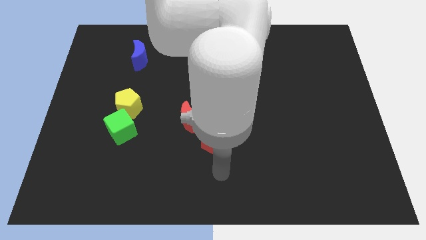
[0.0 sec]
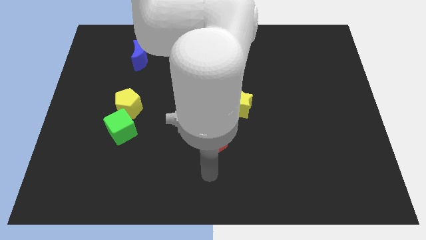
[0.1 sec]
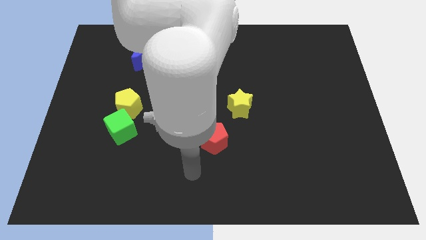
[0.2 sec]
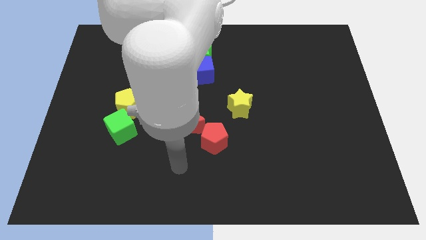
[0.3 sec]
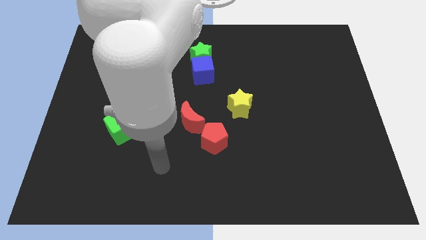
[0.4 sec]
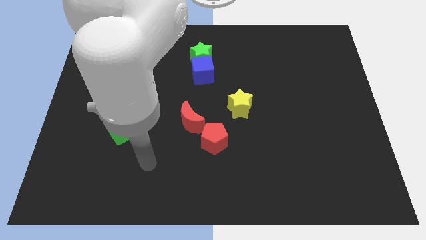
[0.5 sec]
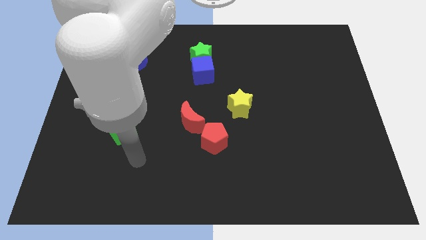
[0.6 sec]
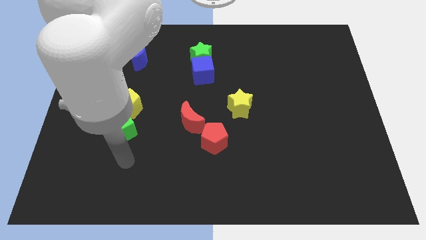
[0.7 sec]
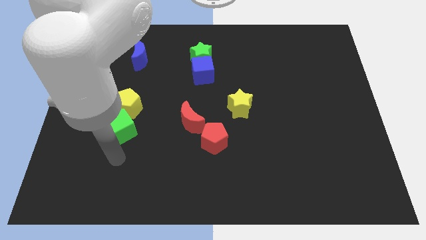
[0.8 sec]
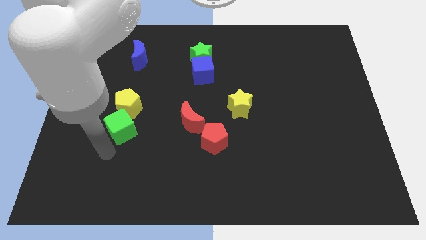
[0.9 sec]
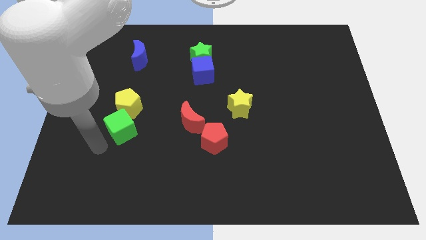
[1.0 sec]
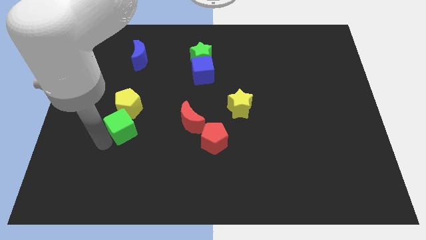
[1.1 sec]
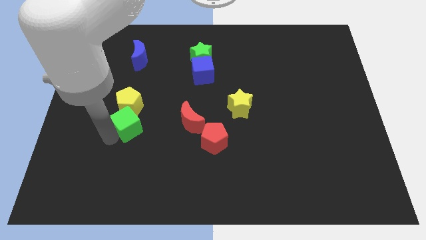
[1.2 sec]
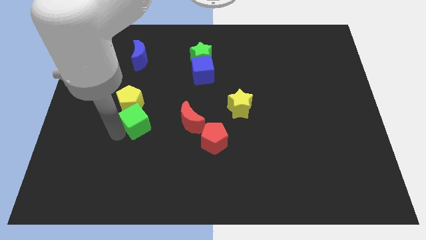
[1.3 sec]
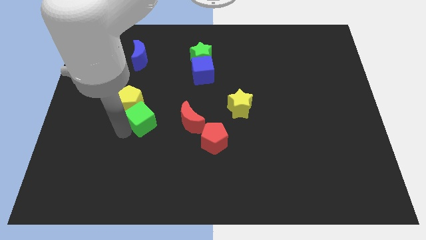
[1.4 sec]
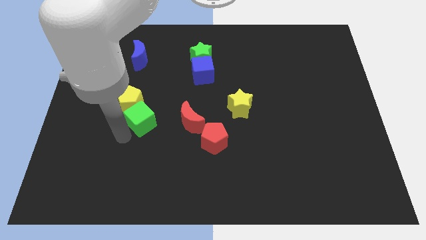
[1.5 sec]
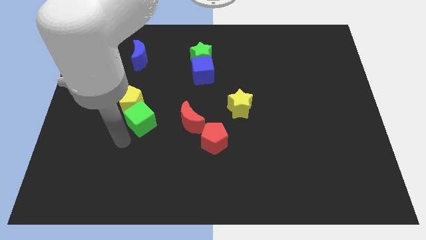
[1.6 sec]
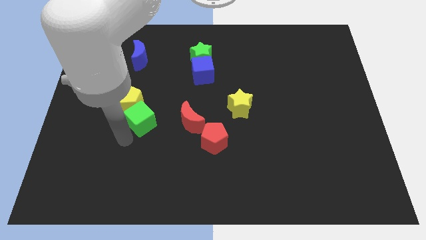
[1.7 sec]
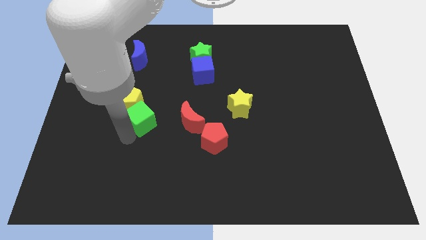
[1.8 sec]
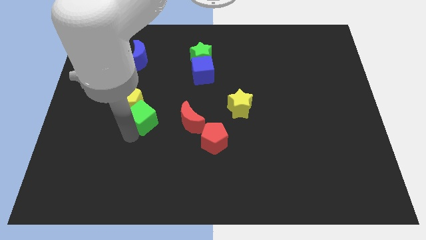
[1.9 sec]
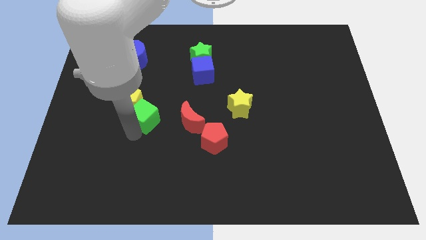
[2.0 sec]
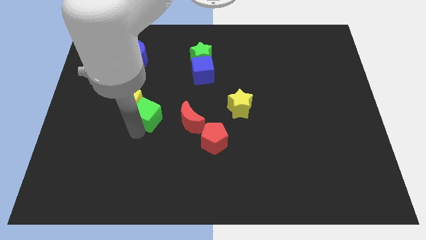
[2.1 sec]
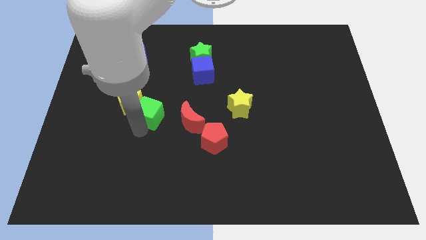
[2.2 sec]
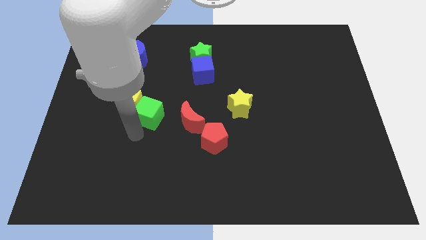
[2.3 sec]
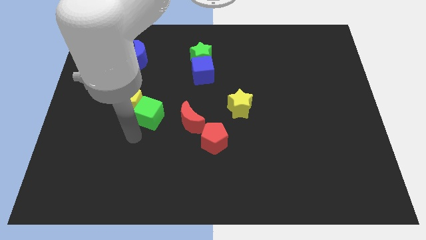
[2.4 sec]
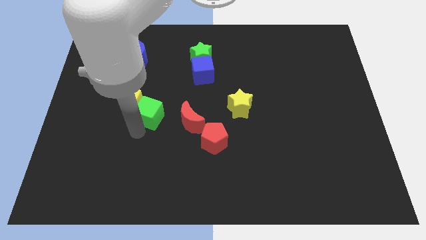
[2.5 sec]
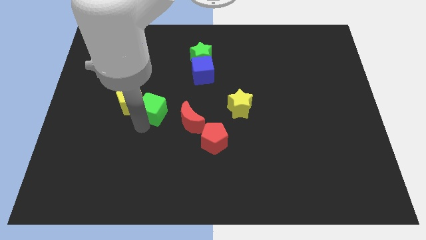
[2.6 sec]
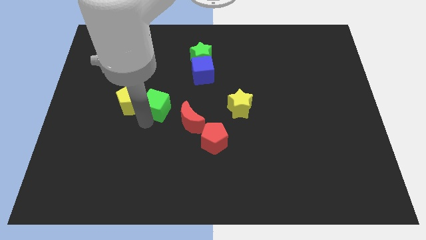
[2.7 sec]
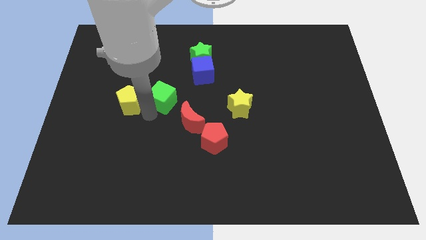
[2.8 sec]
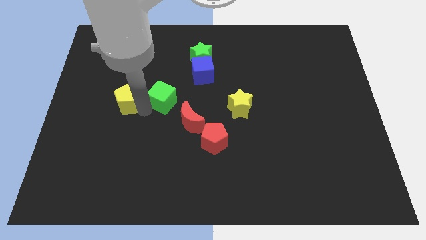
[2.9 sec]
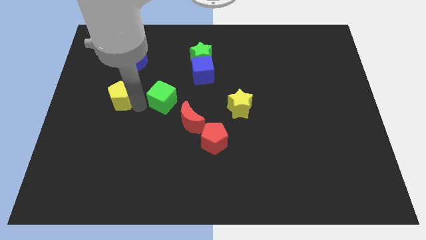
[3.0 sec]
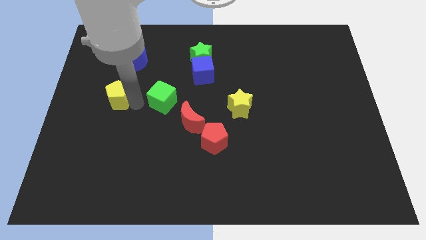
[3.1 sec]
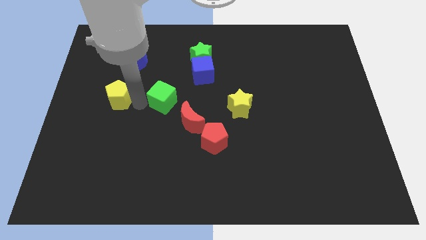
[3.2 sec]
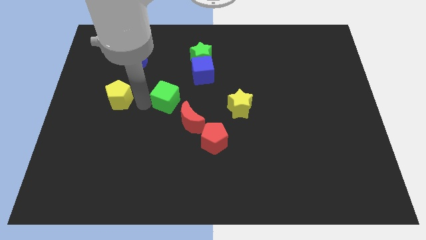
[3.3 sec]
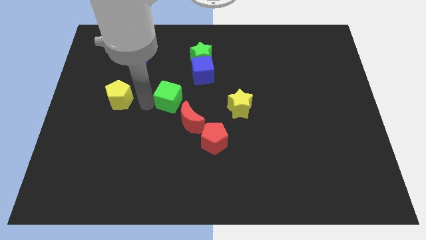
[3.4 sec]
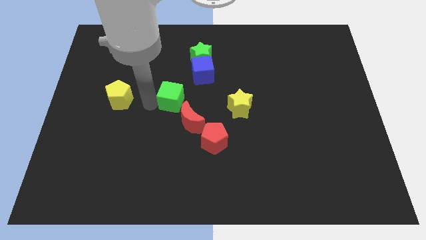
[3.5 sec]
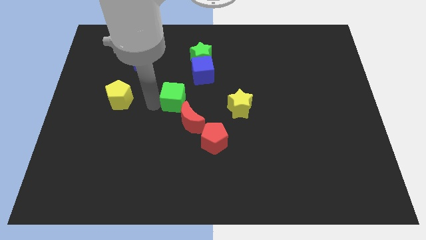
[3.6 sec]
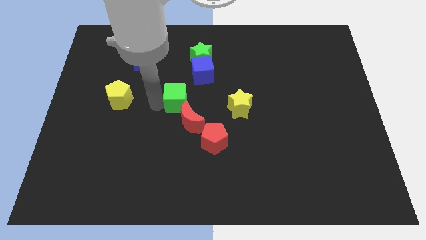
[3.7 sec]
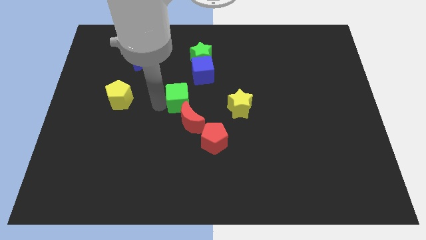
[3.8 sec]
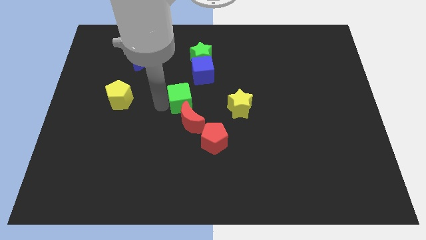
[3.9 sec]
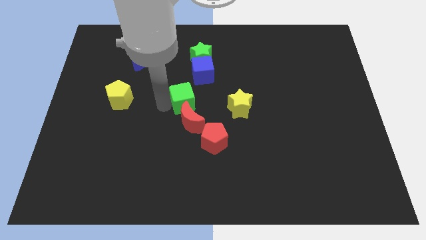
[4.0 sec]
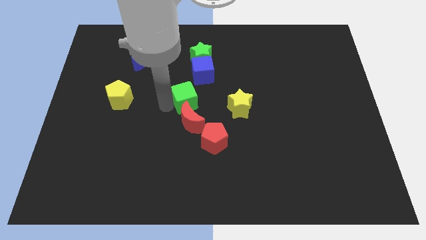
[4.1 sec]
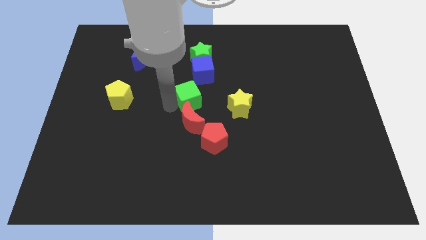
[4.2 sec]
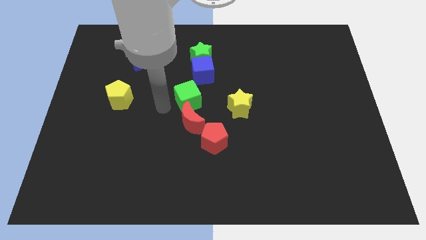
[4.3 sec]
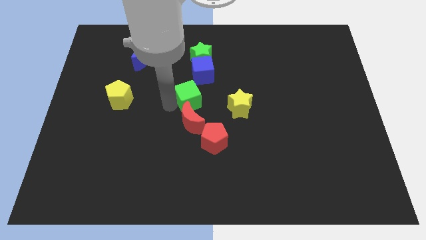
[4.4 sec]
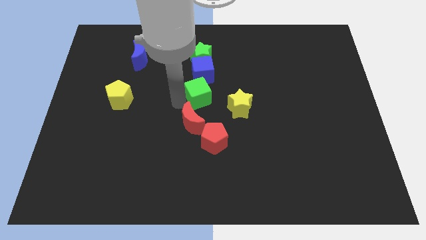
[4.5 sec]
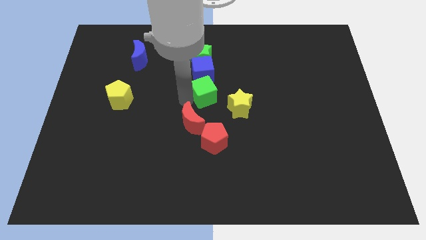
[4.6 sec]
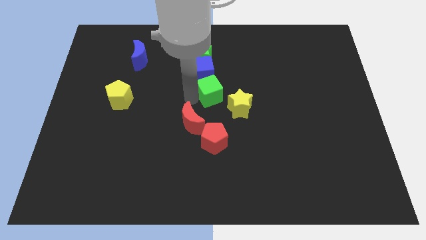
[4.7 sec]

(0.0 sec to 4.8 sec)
move the green cube upwards and right diagonally

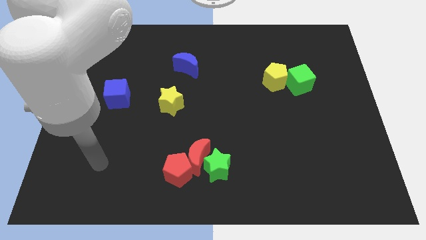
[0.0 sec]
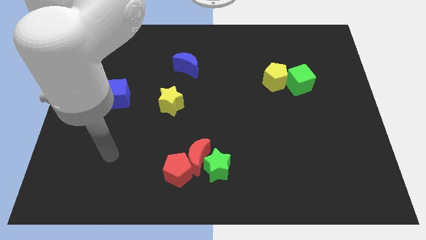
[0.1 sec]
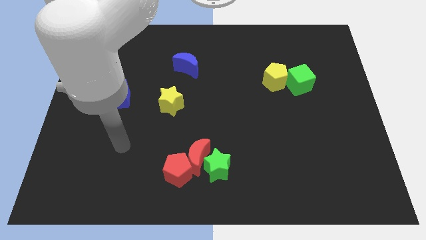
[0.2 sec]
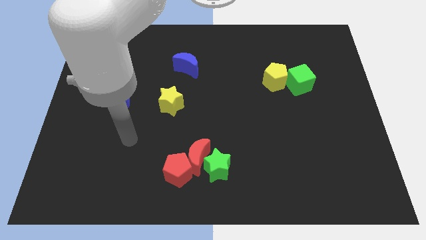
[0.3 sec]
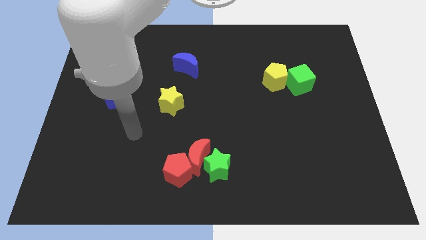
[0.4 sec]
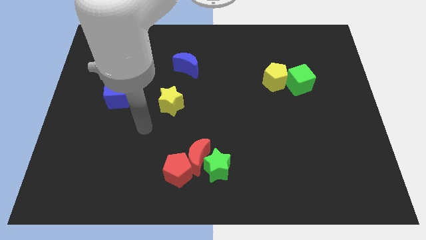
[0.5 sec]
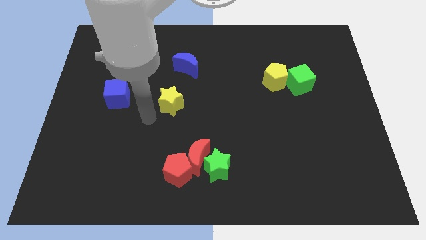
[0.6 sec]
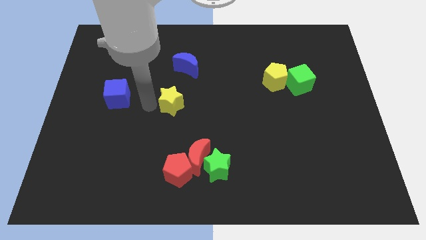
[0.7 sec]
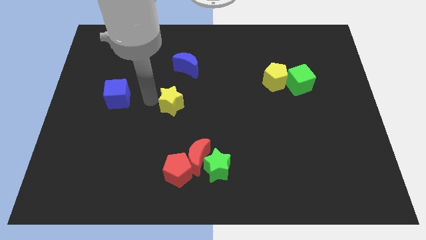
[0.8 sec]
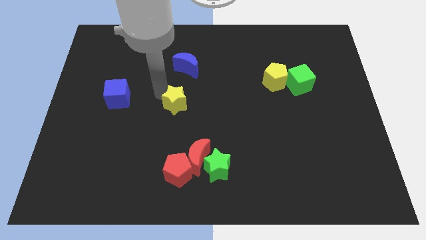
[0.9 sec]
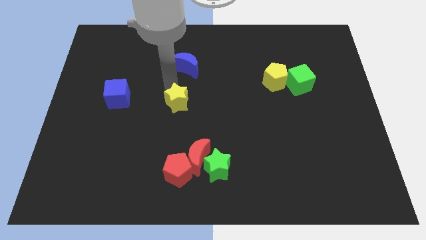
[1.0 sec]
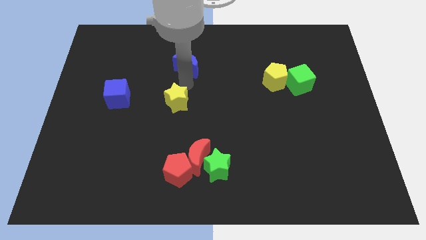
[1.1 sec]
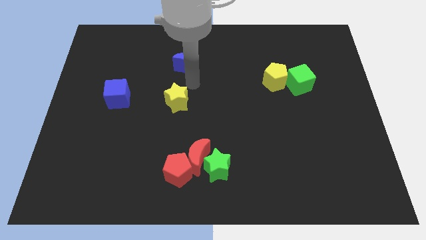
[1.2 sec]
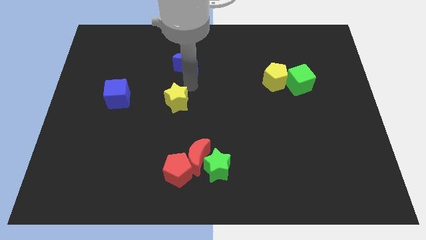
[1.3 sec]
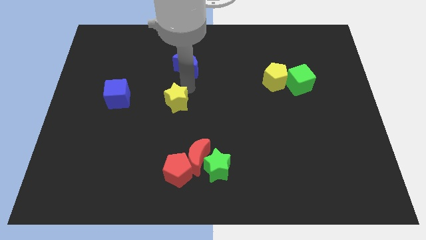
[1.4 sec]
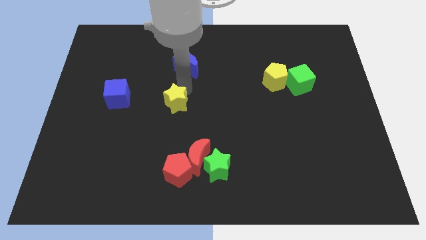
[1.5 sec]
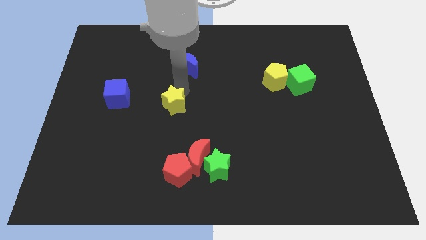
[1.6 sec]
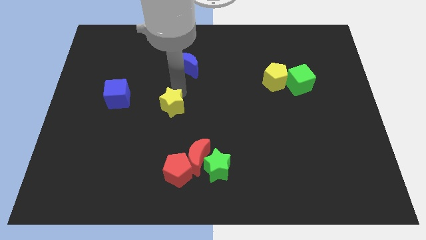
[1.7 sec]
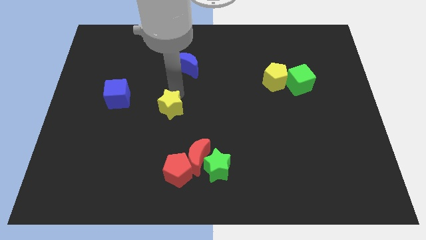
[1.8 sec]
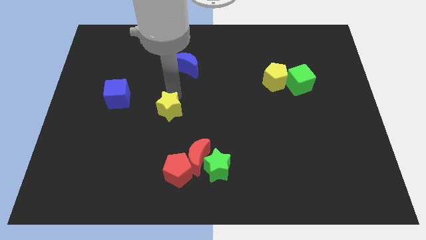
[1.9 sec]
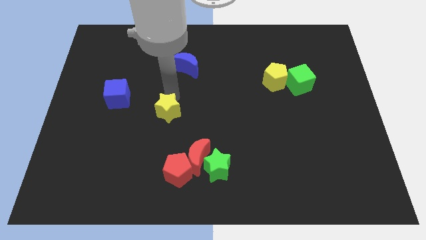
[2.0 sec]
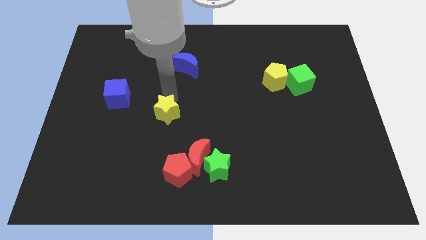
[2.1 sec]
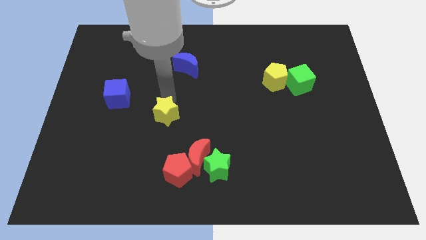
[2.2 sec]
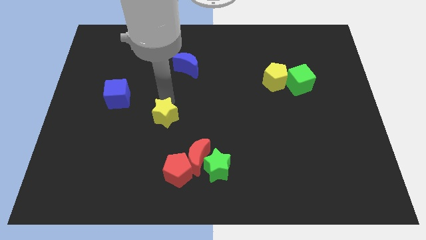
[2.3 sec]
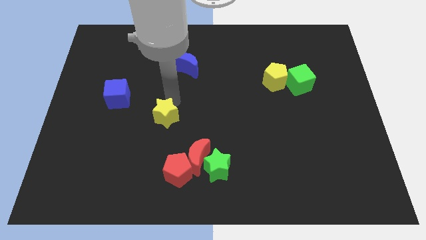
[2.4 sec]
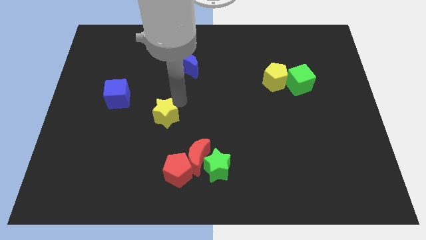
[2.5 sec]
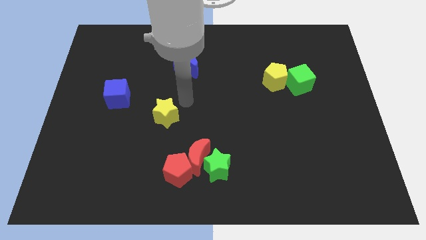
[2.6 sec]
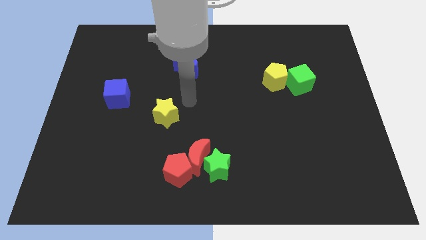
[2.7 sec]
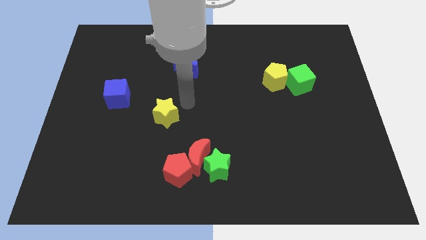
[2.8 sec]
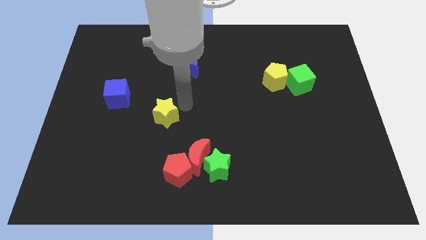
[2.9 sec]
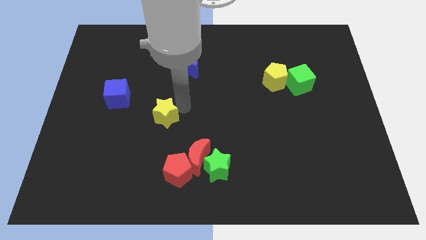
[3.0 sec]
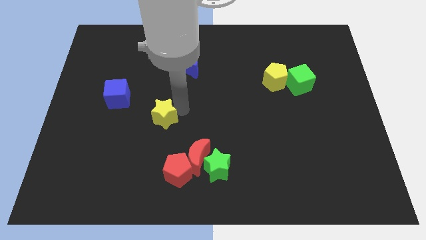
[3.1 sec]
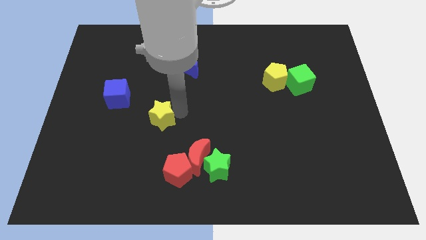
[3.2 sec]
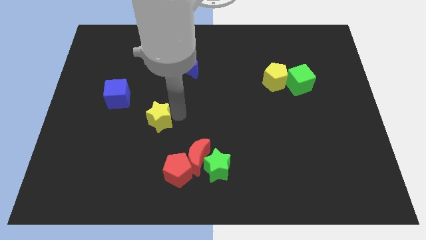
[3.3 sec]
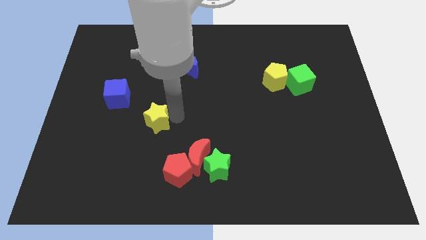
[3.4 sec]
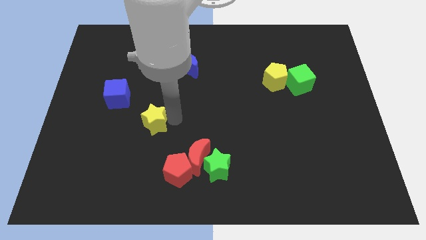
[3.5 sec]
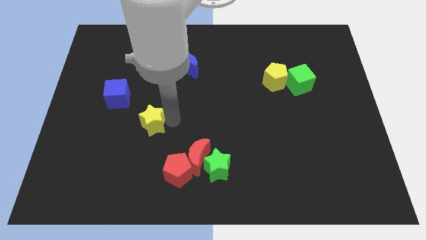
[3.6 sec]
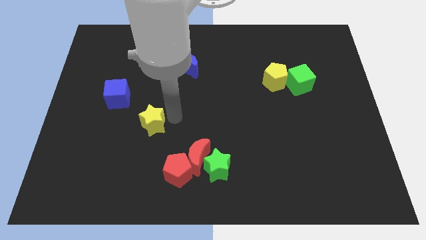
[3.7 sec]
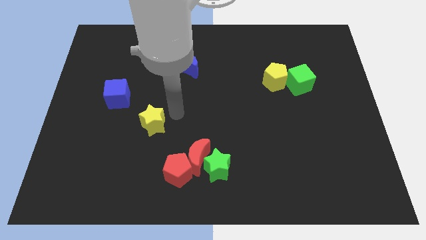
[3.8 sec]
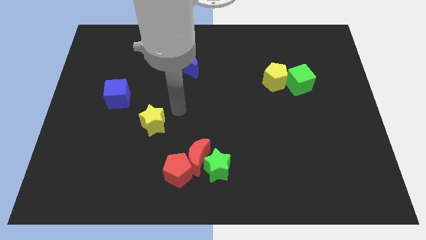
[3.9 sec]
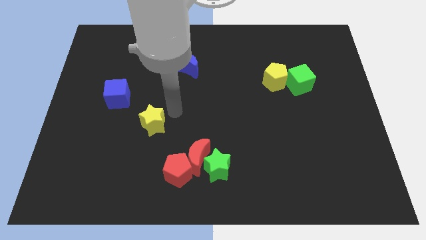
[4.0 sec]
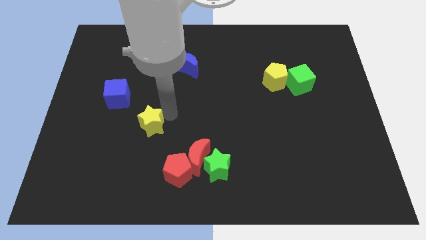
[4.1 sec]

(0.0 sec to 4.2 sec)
slightly slide the yellow star diagonally down and to the left
